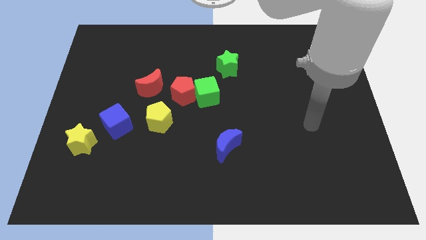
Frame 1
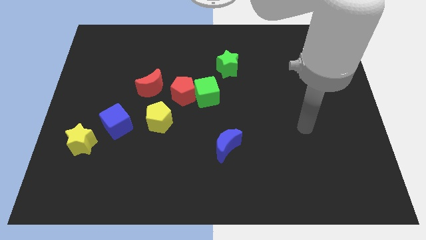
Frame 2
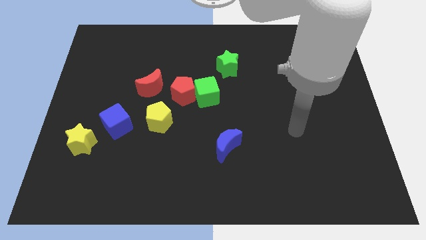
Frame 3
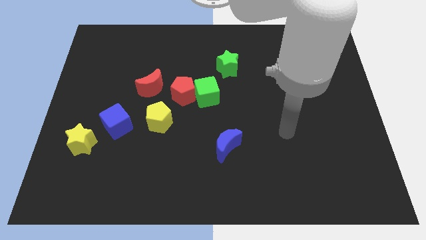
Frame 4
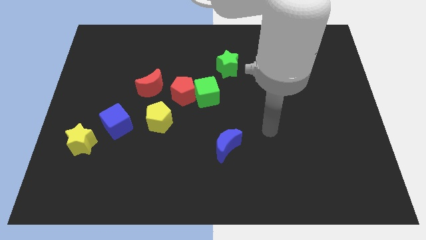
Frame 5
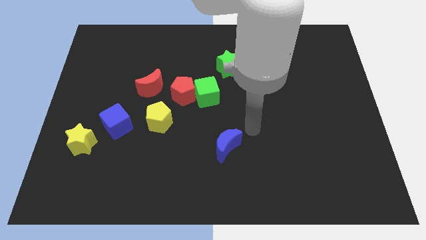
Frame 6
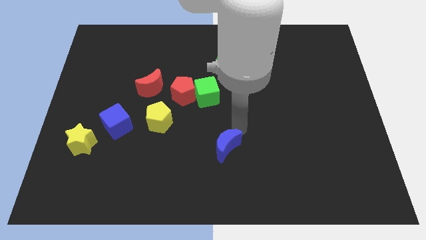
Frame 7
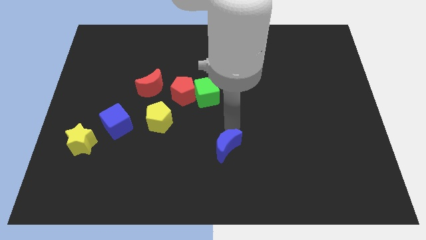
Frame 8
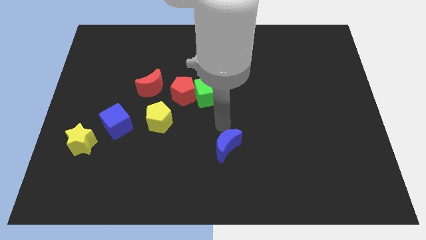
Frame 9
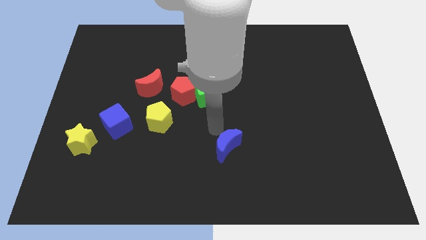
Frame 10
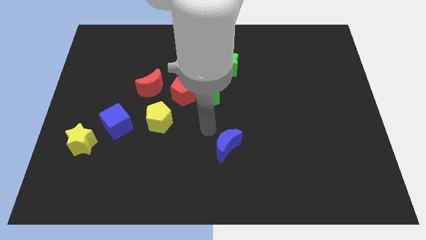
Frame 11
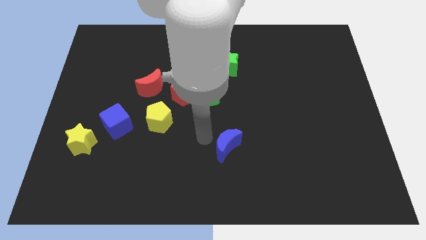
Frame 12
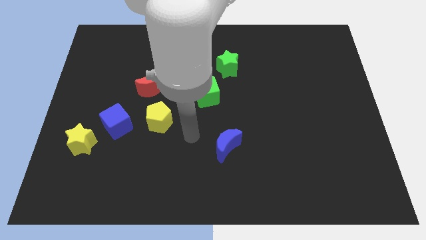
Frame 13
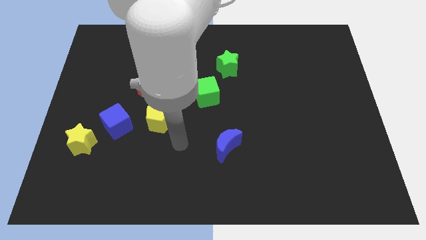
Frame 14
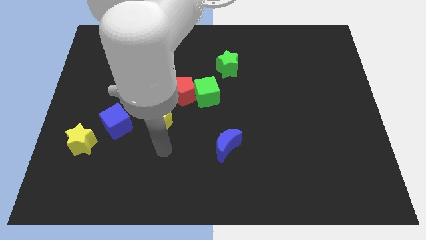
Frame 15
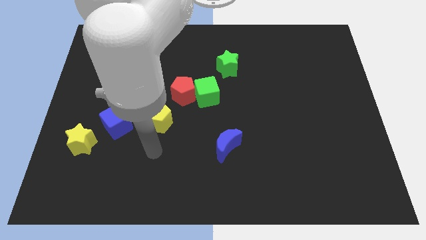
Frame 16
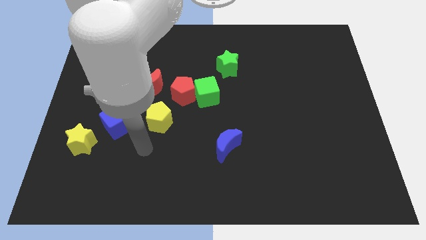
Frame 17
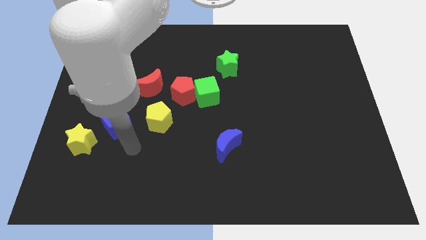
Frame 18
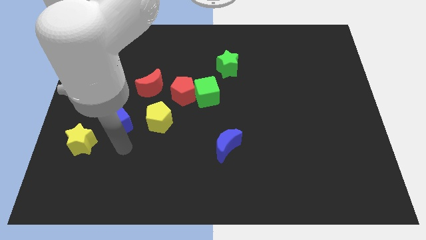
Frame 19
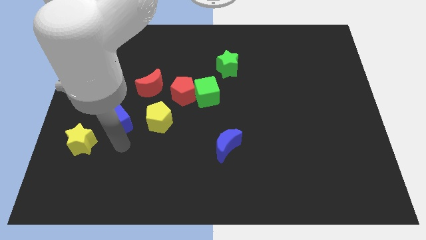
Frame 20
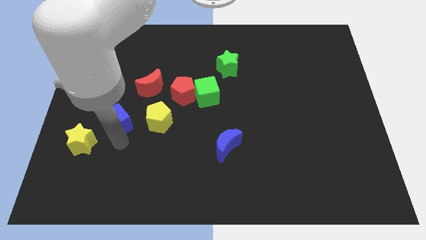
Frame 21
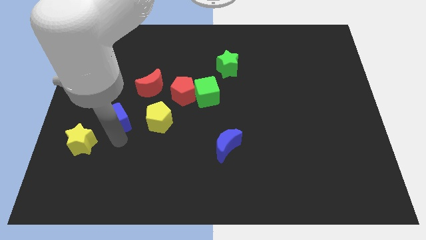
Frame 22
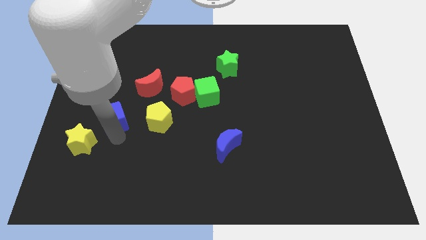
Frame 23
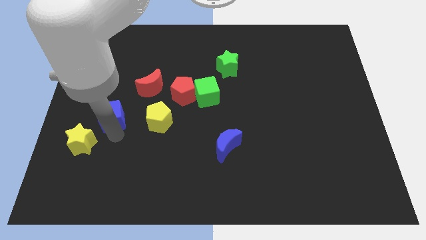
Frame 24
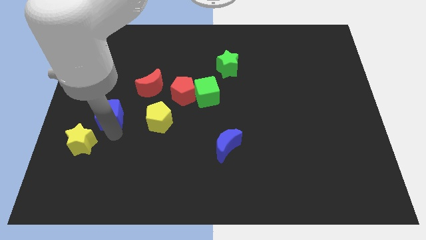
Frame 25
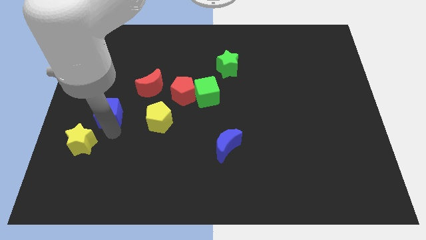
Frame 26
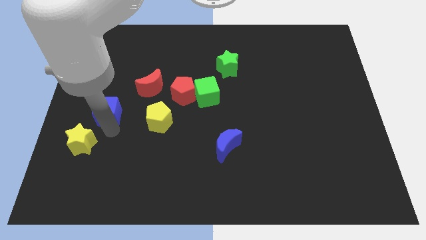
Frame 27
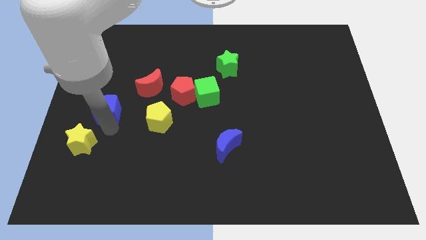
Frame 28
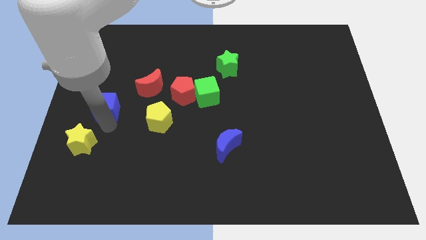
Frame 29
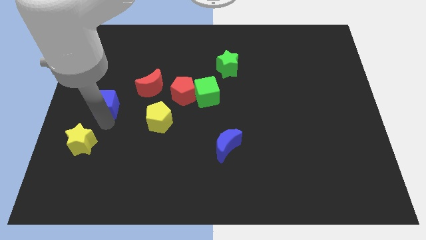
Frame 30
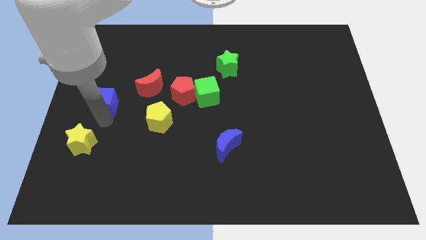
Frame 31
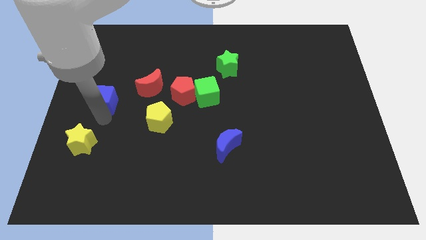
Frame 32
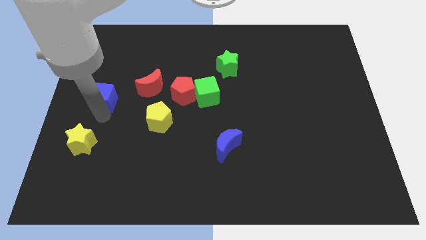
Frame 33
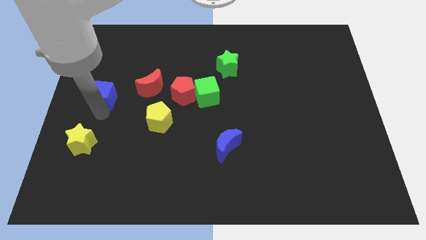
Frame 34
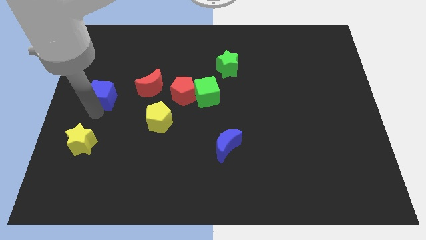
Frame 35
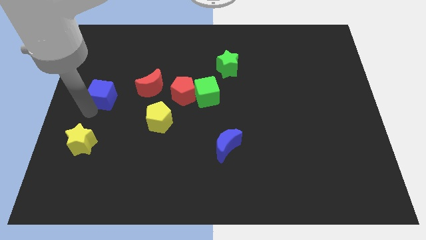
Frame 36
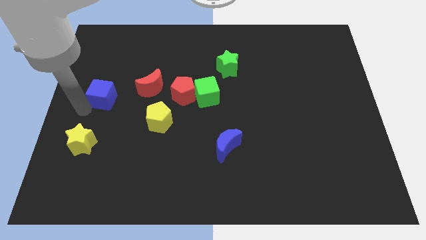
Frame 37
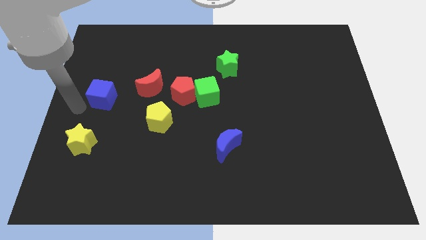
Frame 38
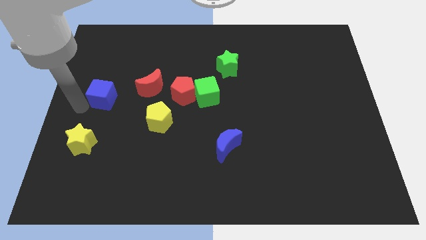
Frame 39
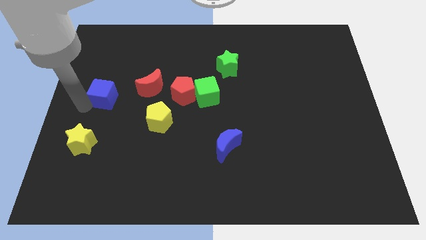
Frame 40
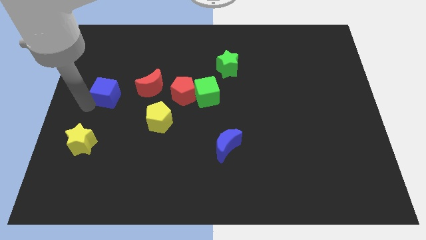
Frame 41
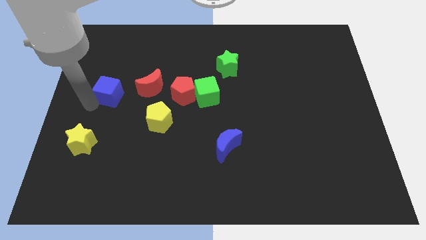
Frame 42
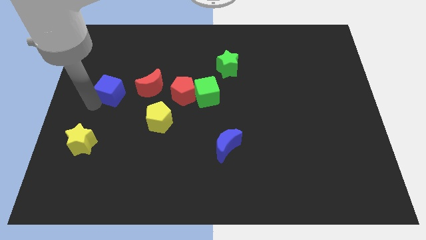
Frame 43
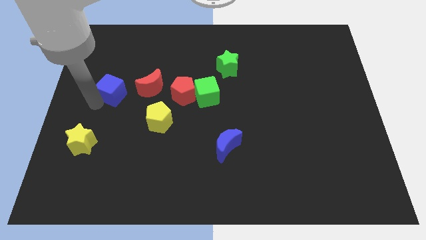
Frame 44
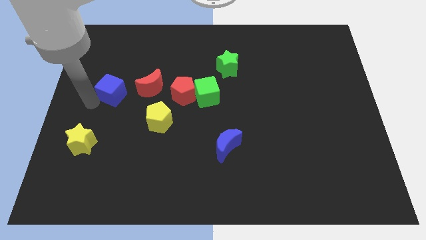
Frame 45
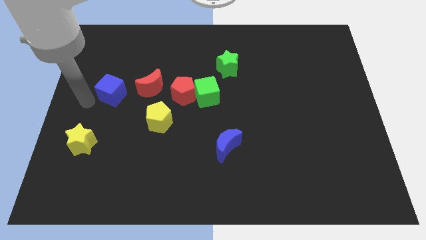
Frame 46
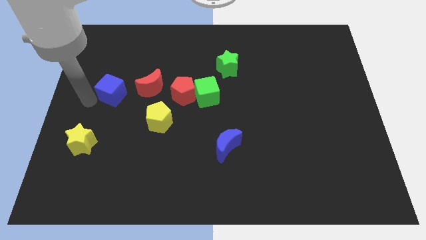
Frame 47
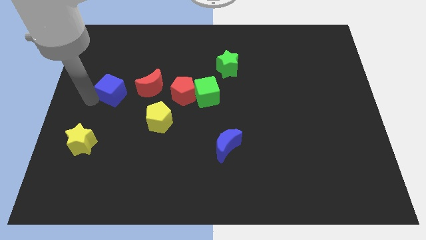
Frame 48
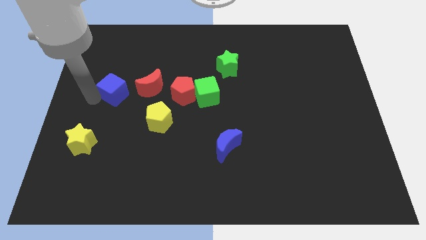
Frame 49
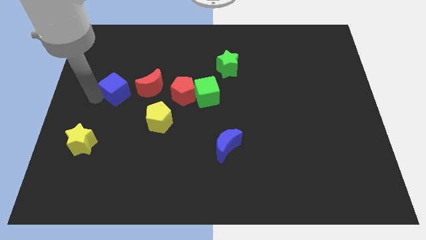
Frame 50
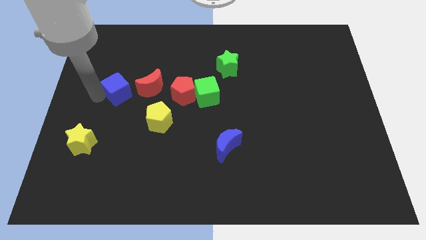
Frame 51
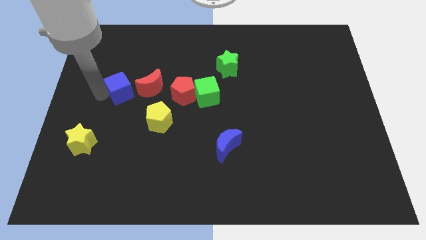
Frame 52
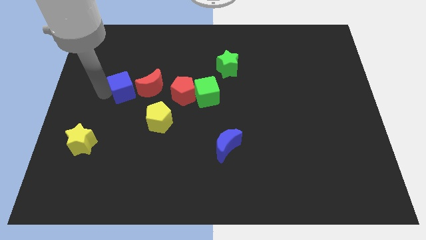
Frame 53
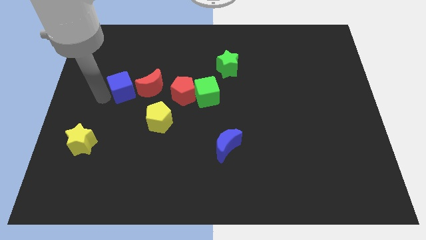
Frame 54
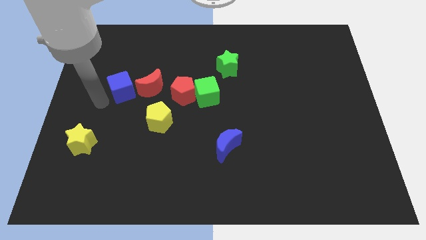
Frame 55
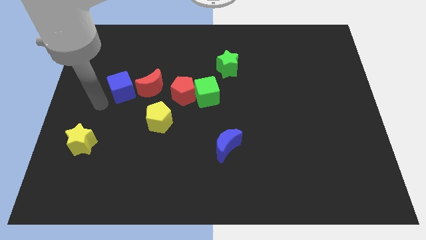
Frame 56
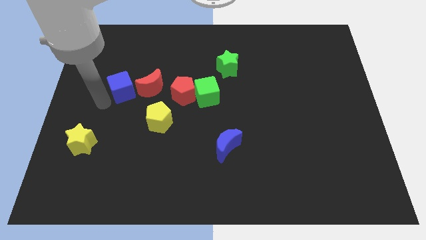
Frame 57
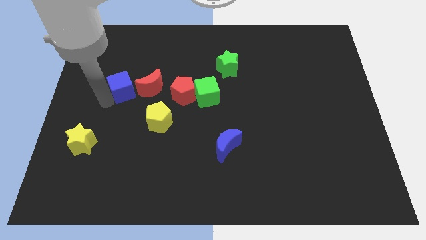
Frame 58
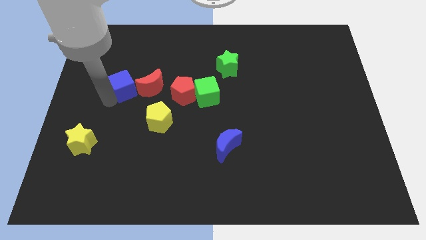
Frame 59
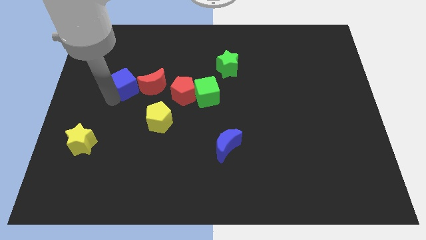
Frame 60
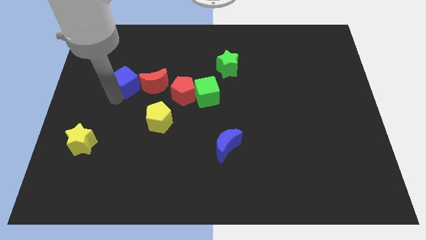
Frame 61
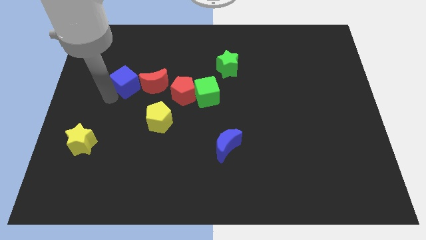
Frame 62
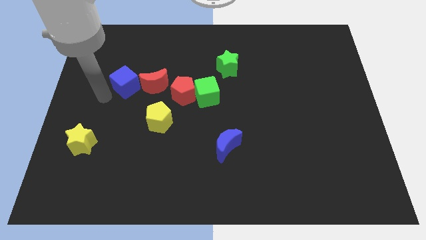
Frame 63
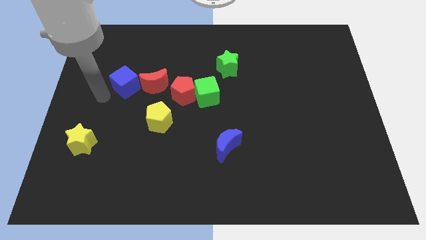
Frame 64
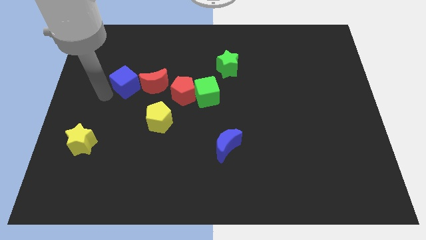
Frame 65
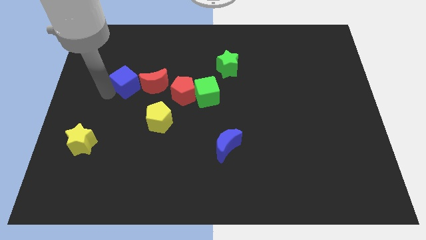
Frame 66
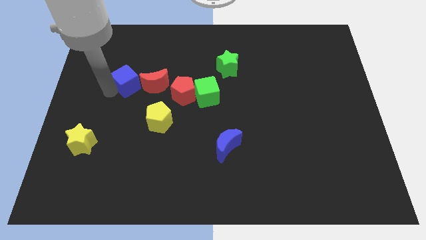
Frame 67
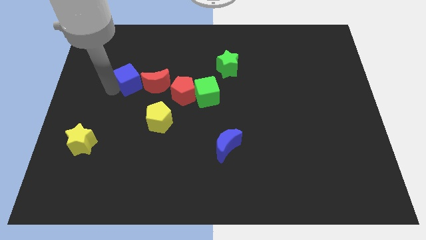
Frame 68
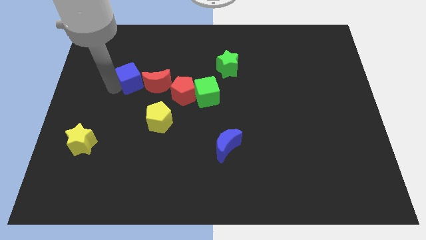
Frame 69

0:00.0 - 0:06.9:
slightly move the blue cube up and then to the right

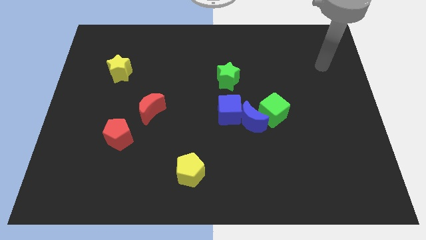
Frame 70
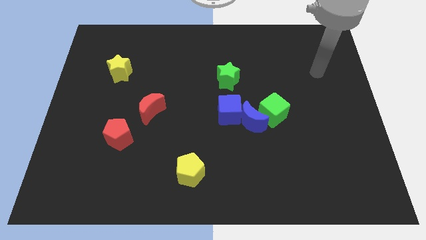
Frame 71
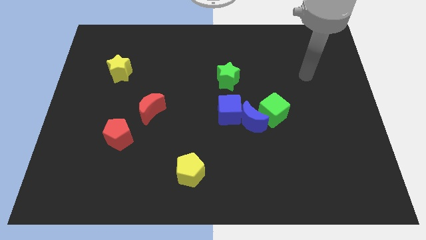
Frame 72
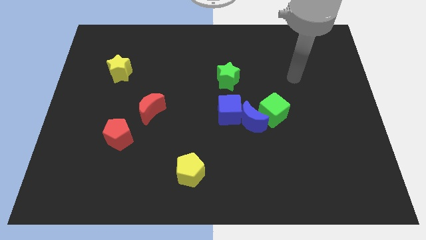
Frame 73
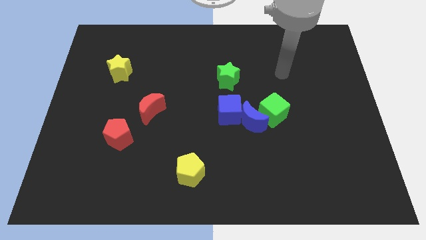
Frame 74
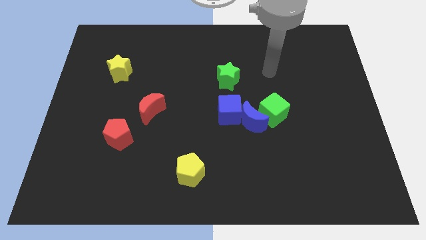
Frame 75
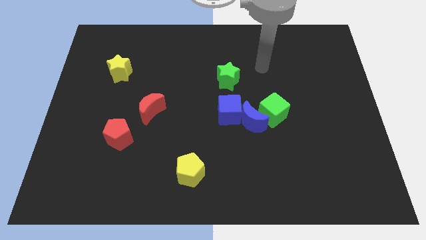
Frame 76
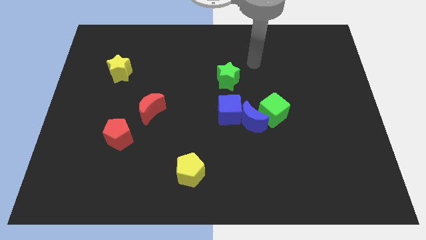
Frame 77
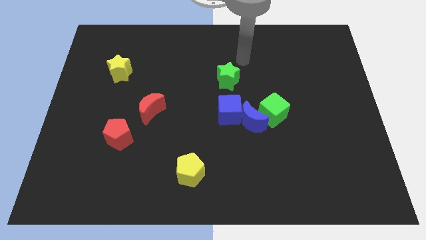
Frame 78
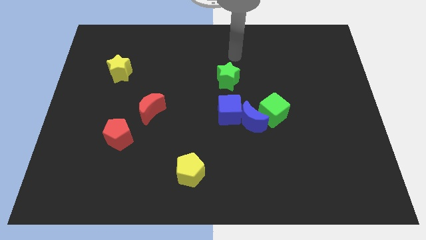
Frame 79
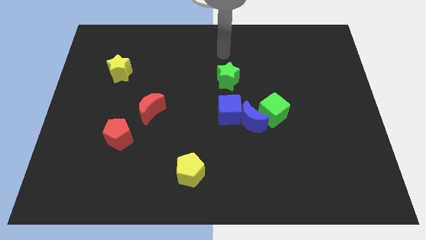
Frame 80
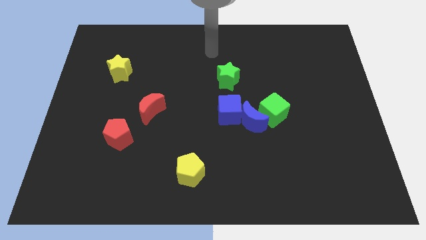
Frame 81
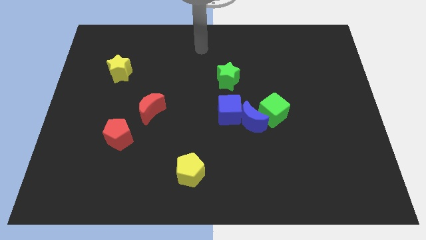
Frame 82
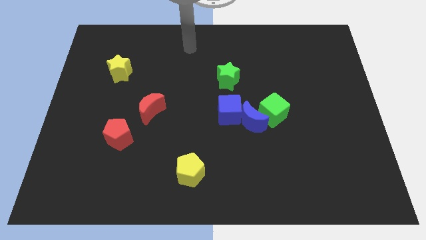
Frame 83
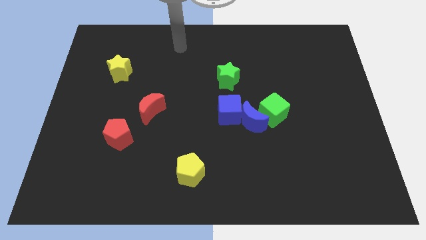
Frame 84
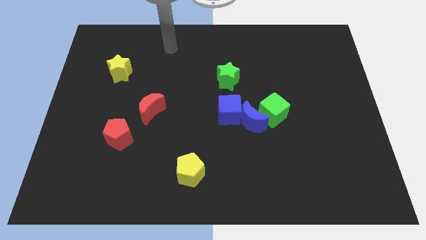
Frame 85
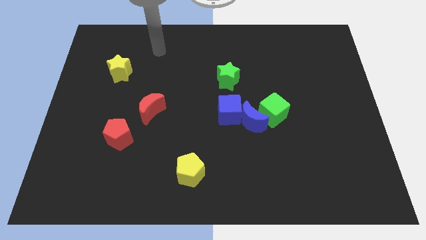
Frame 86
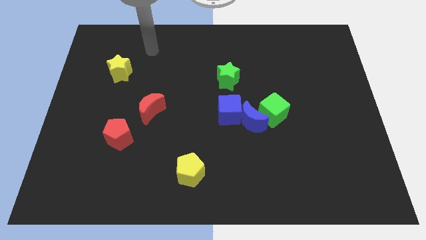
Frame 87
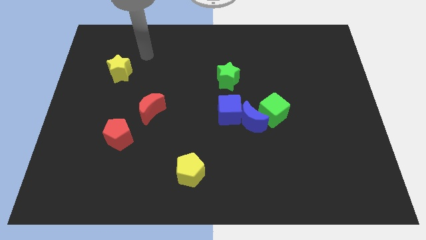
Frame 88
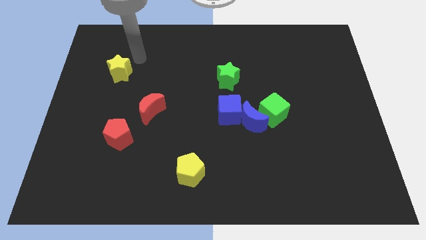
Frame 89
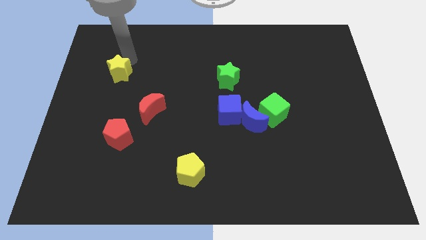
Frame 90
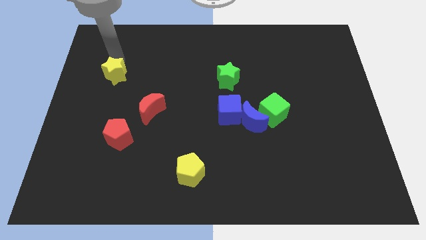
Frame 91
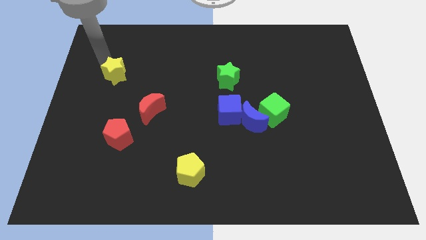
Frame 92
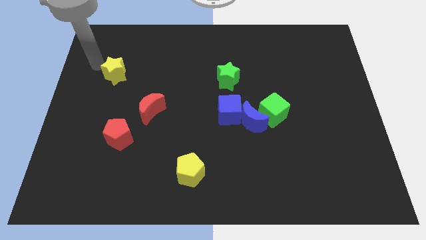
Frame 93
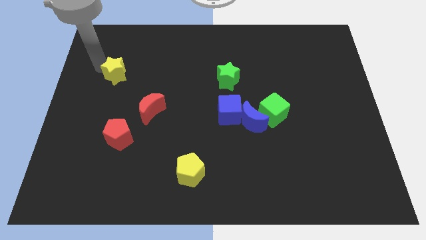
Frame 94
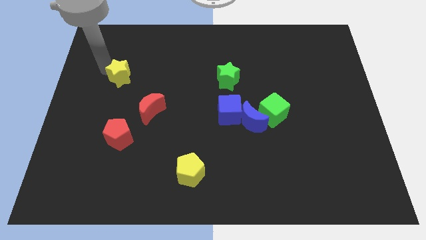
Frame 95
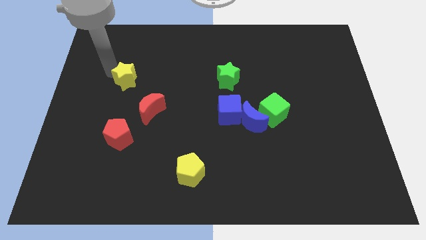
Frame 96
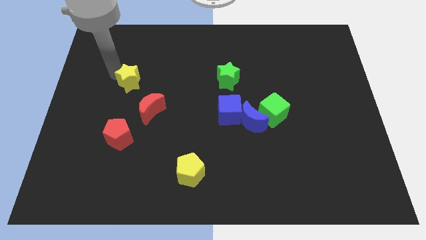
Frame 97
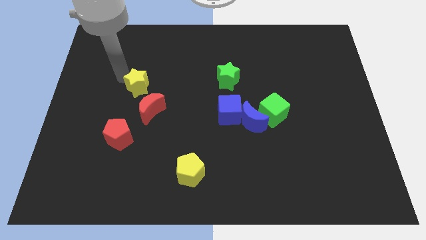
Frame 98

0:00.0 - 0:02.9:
slightly move the yellow star diagonally downwards and to the right
